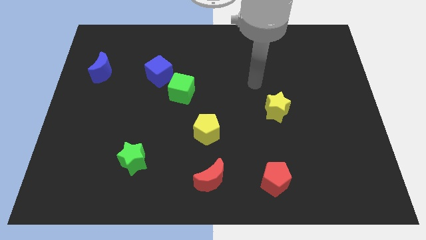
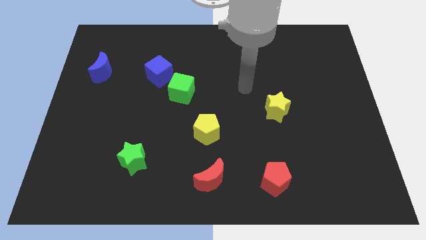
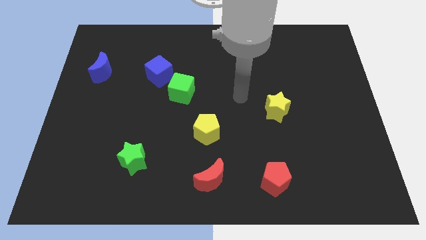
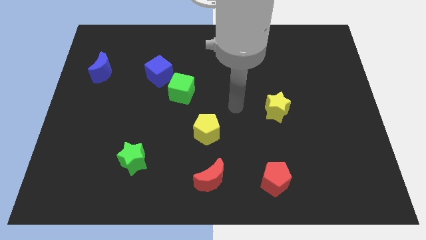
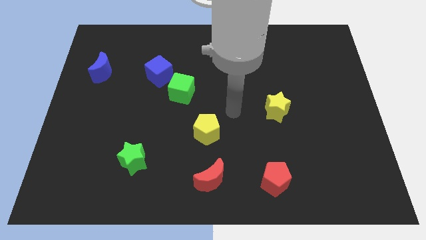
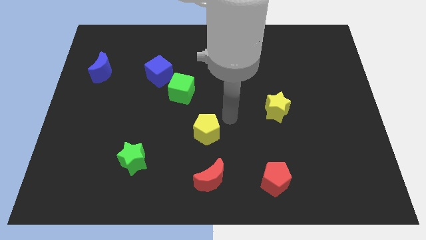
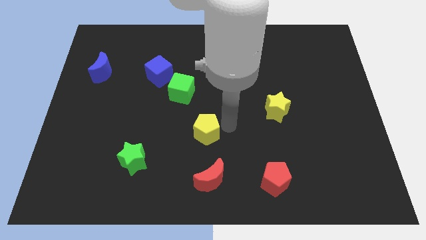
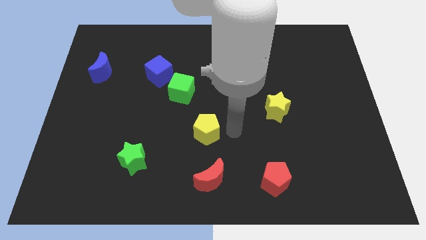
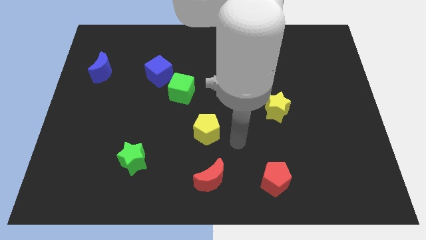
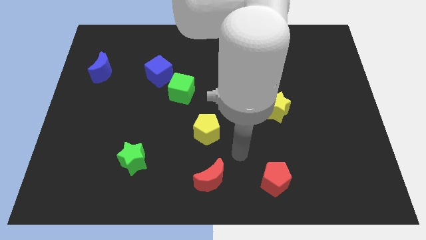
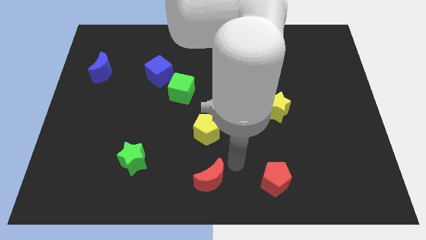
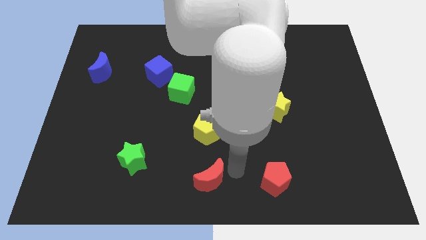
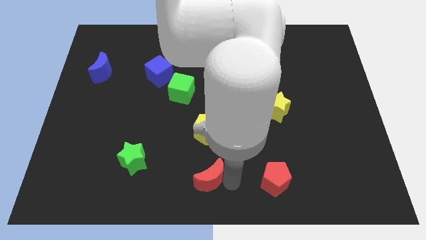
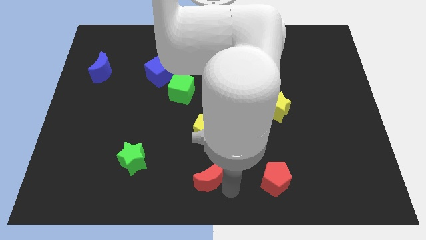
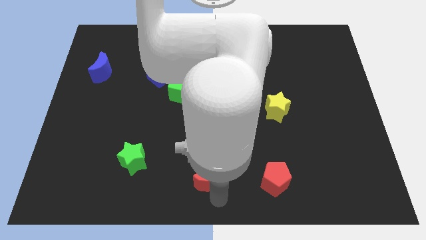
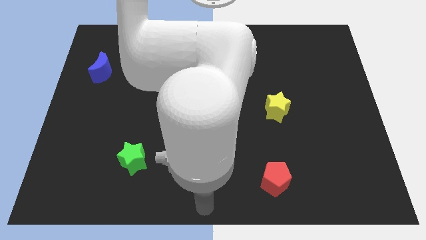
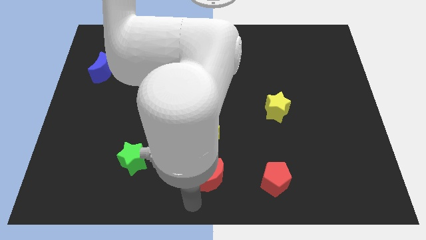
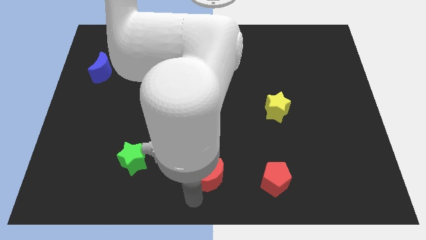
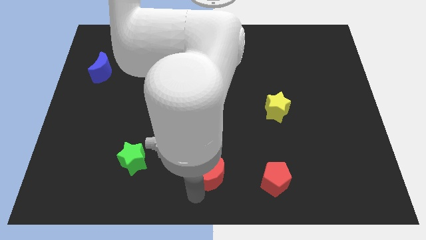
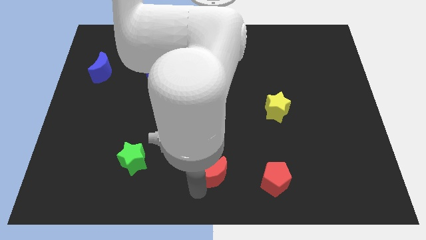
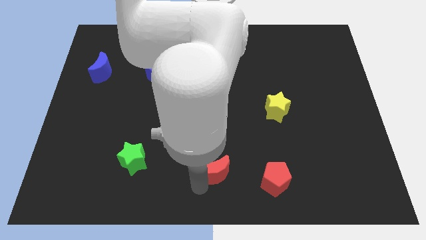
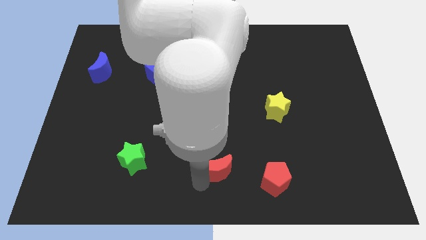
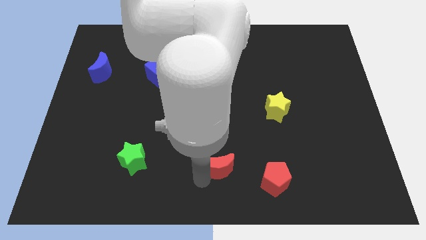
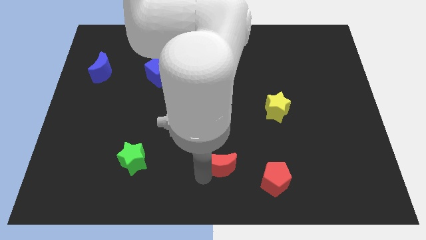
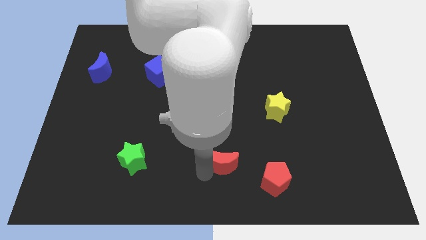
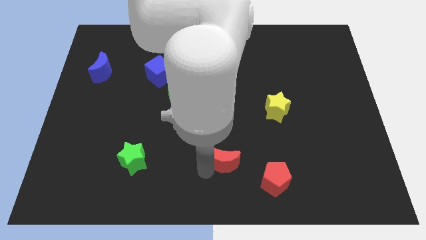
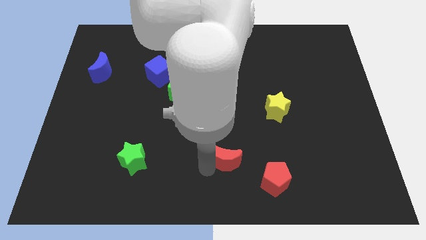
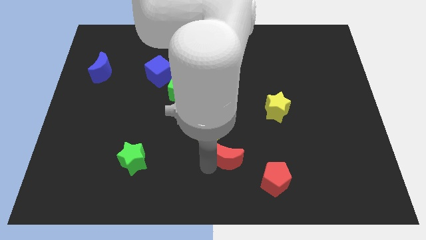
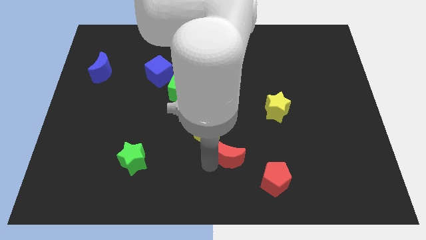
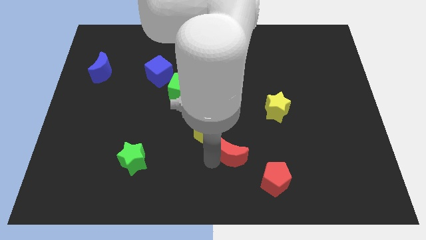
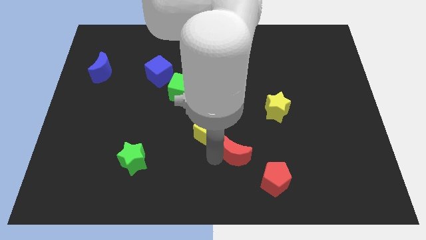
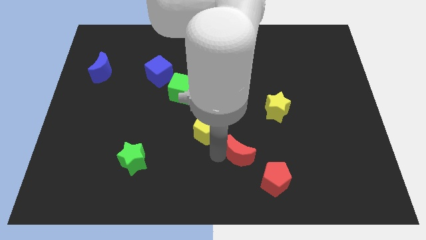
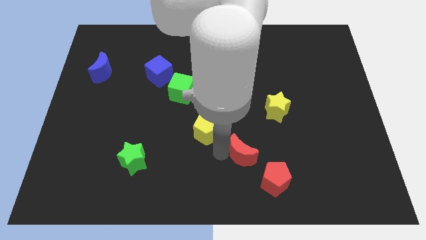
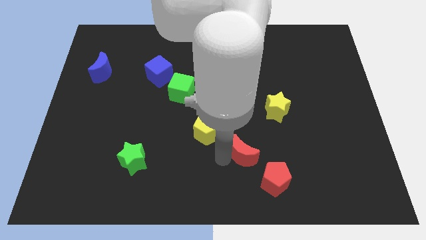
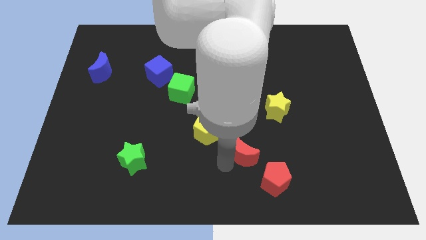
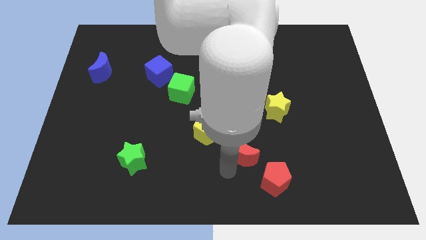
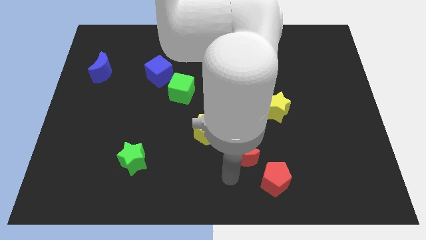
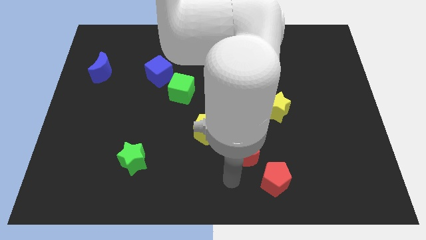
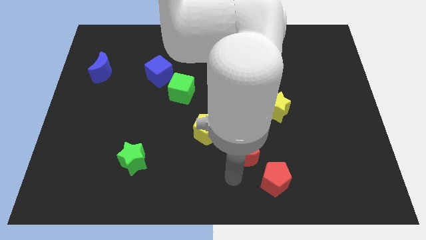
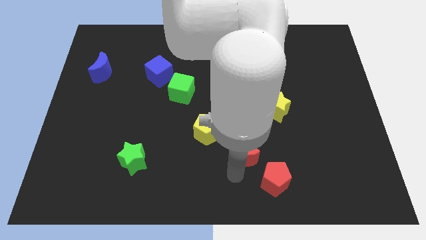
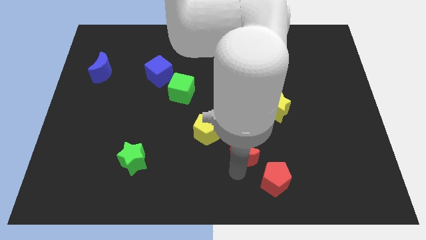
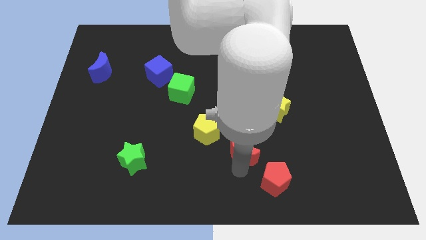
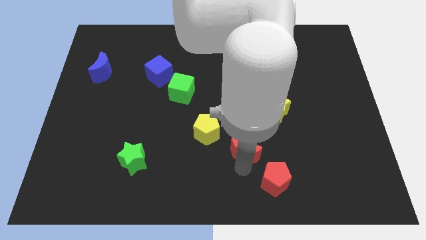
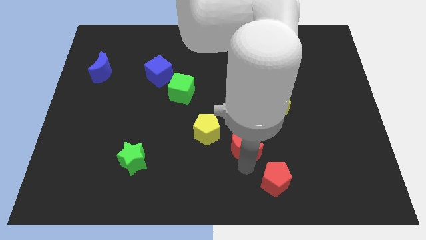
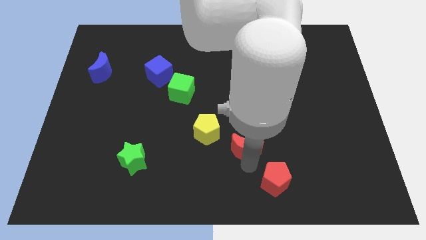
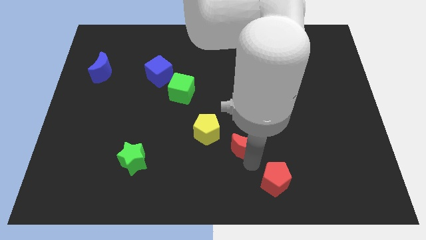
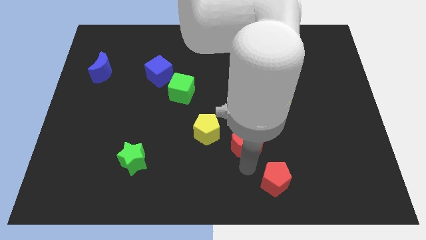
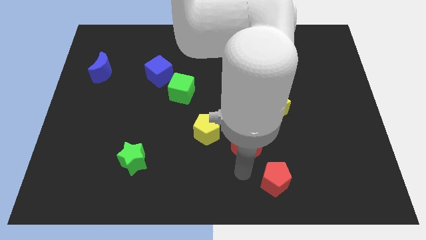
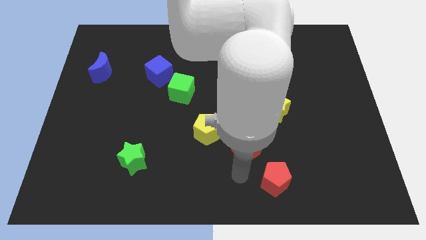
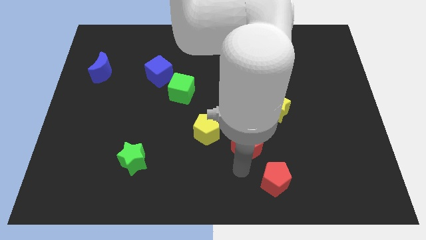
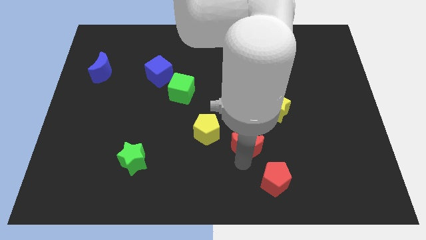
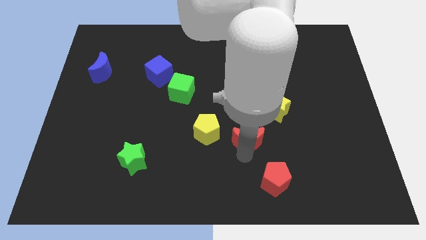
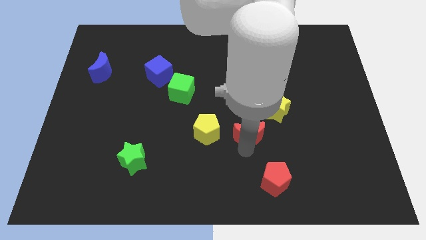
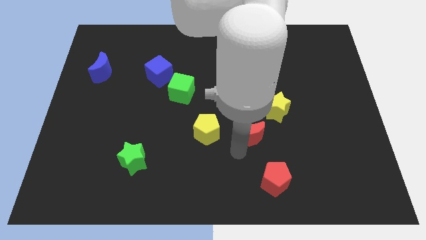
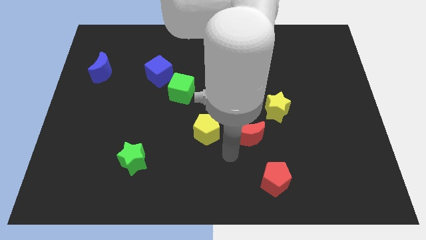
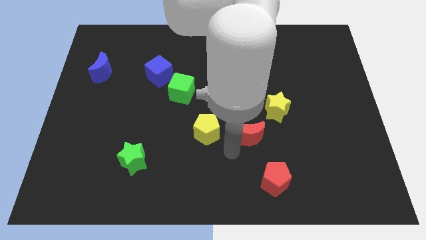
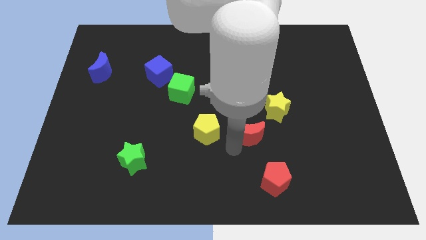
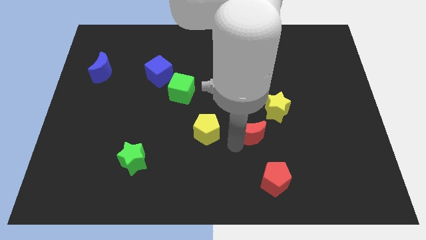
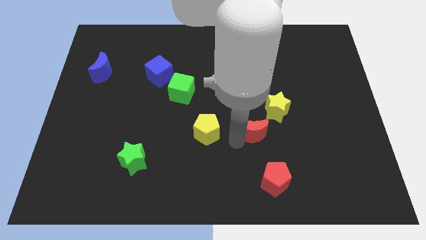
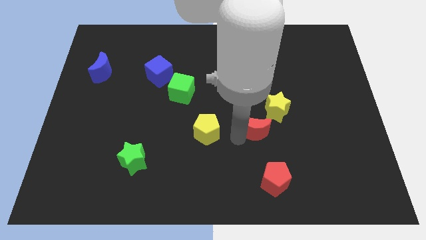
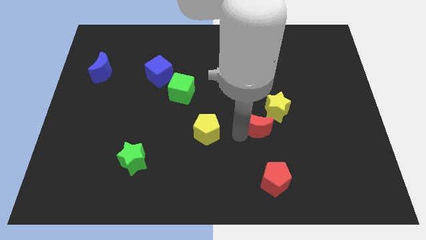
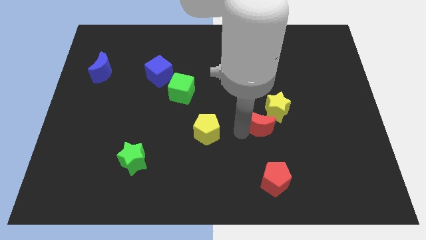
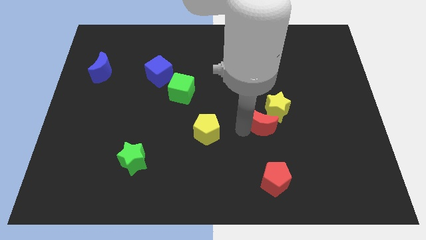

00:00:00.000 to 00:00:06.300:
slide the red moon towards the yellow star

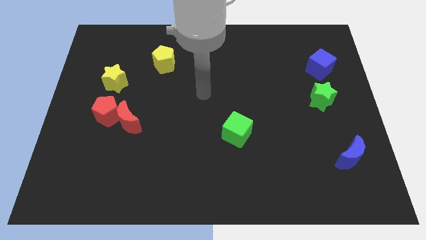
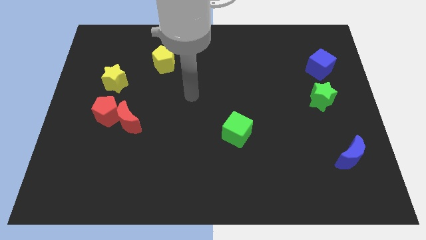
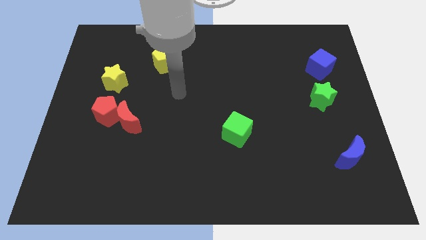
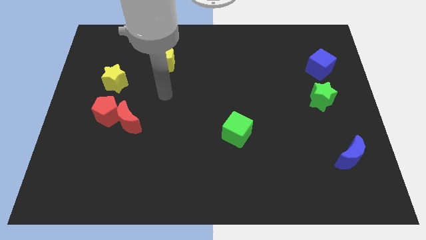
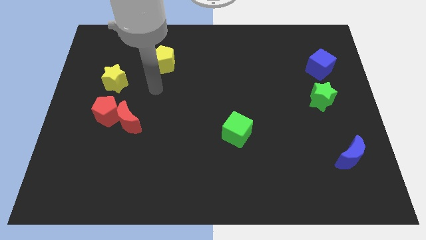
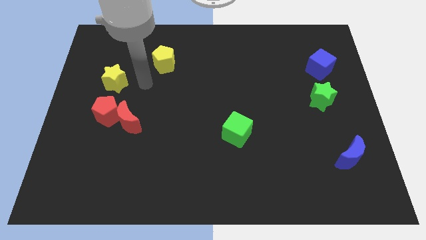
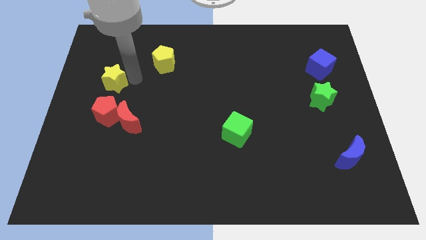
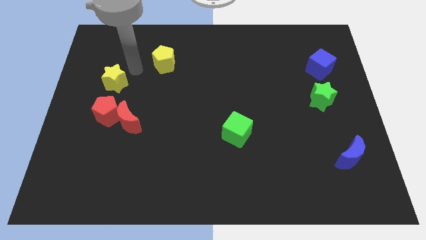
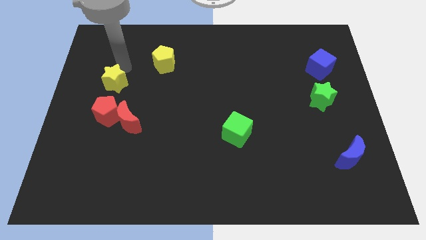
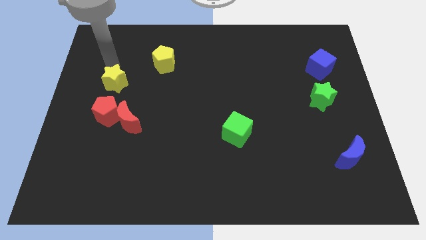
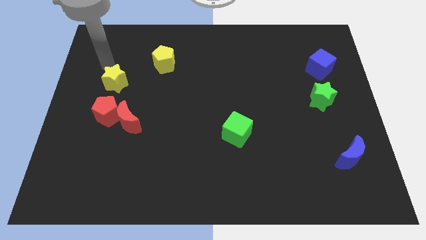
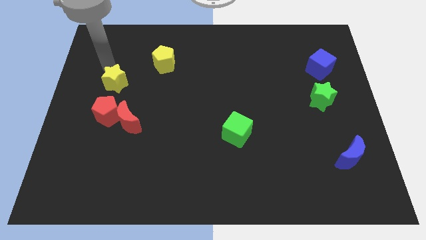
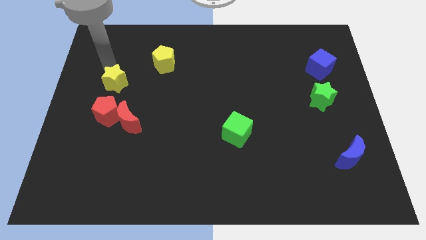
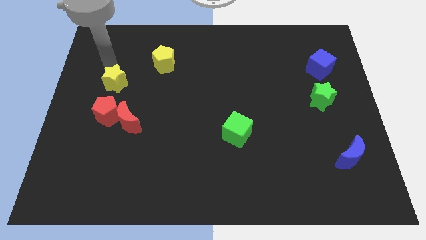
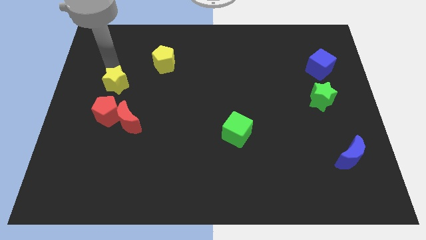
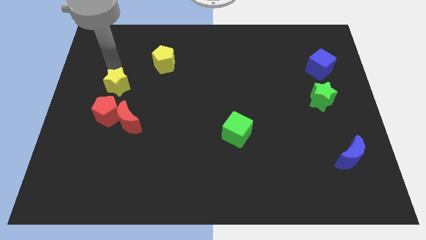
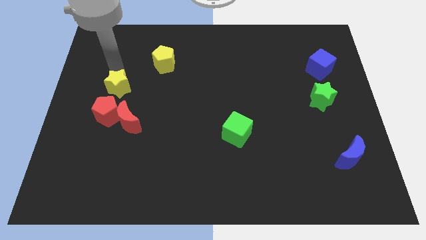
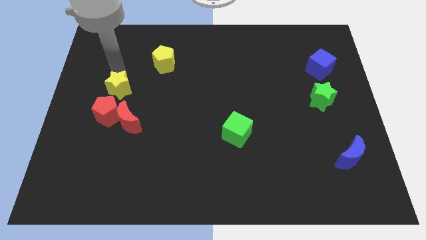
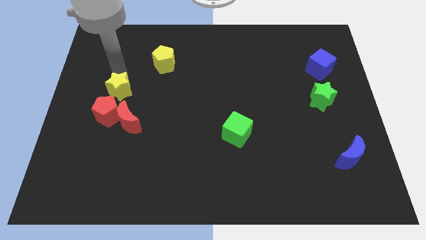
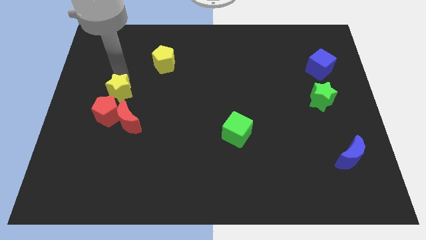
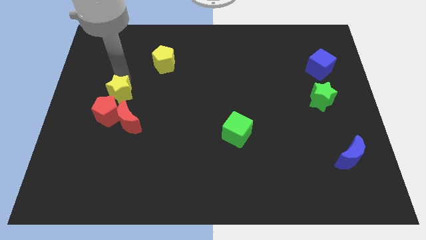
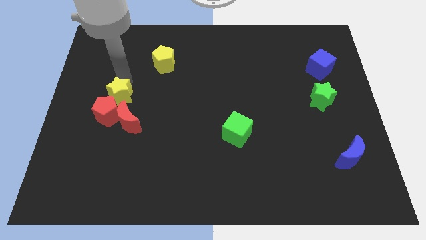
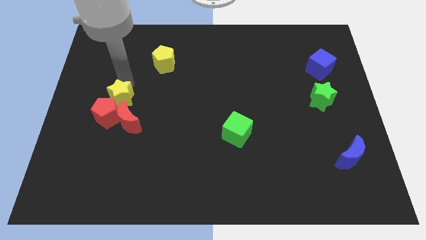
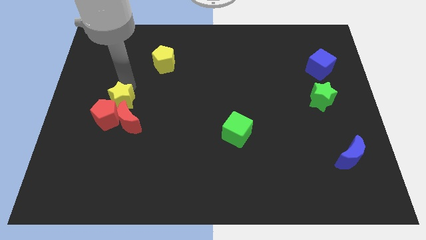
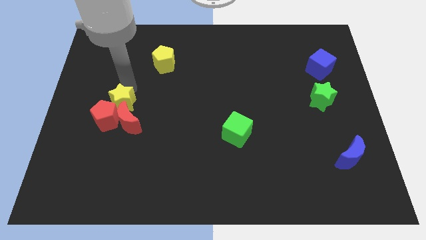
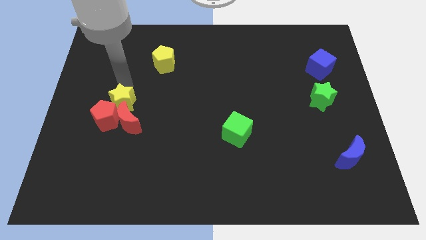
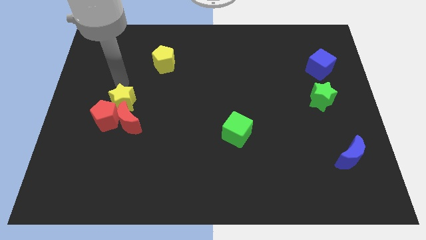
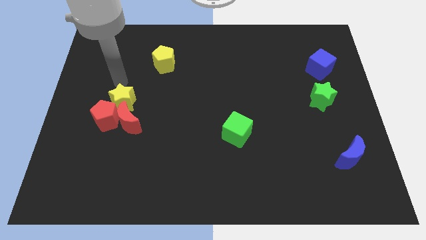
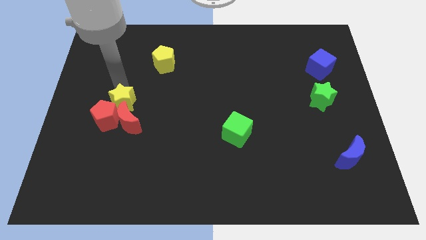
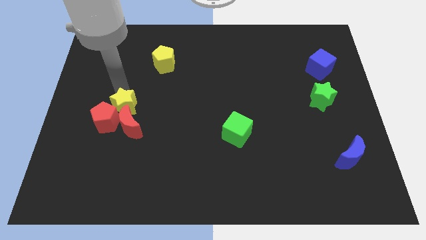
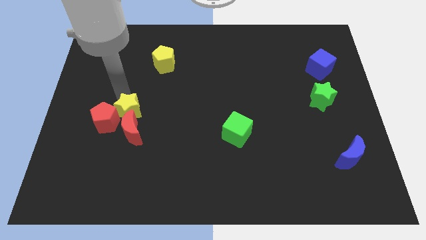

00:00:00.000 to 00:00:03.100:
move the yellow star to the red moon
